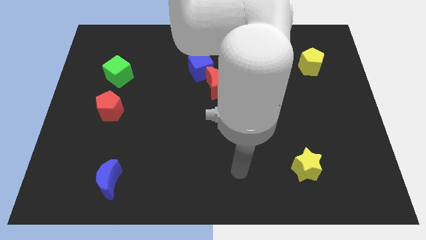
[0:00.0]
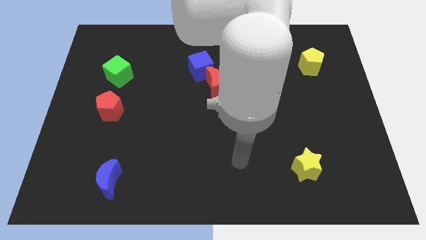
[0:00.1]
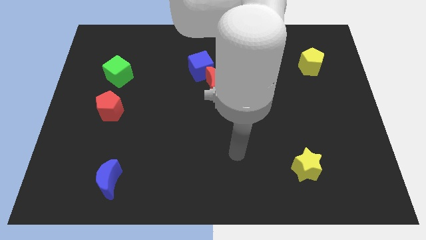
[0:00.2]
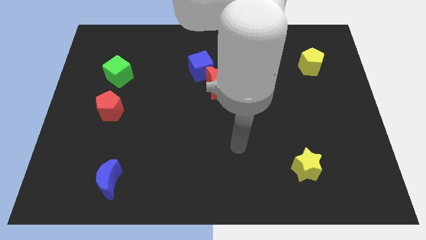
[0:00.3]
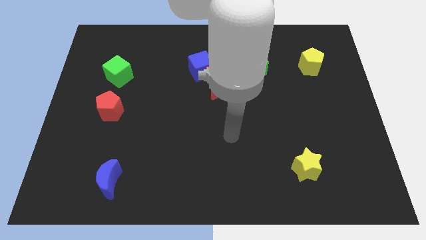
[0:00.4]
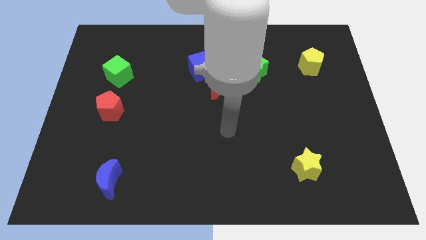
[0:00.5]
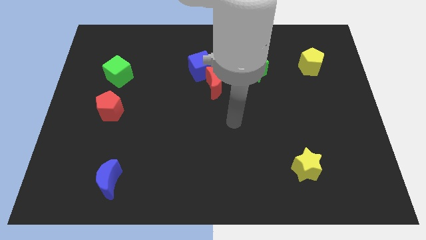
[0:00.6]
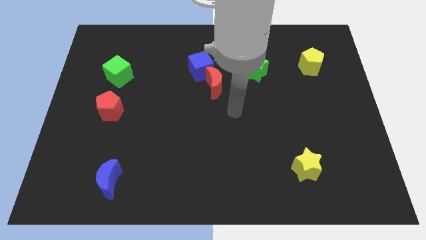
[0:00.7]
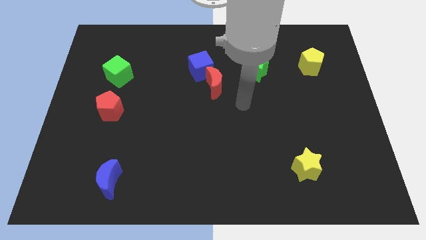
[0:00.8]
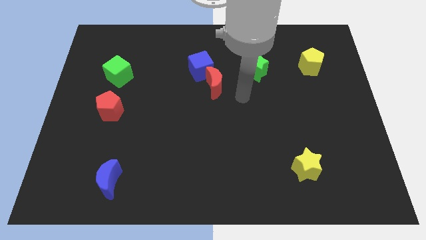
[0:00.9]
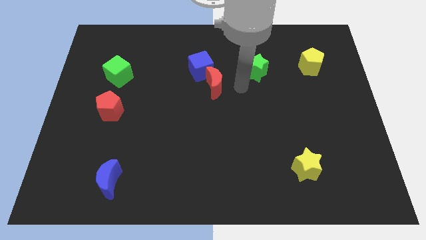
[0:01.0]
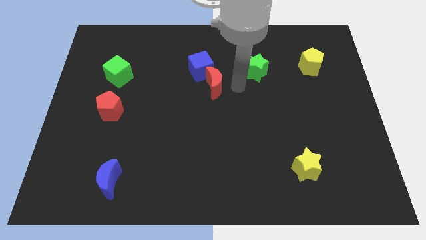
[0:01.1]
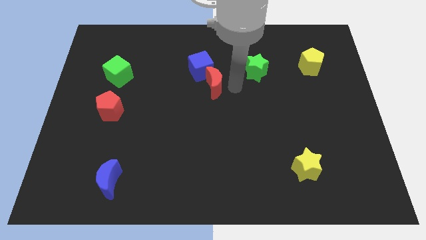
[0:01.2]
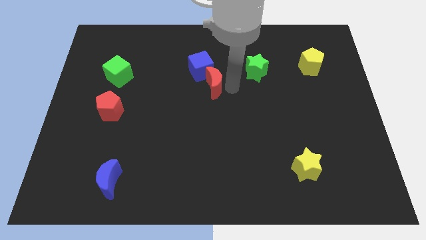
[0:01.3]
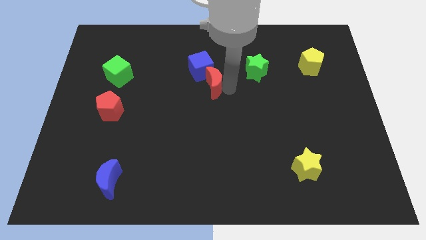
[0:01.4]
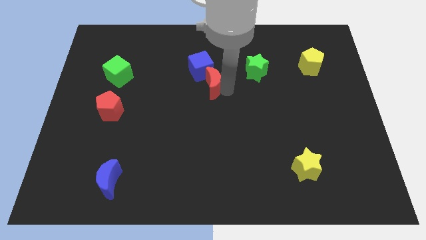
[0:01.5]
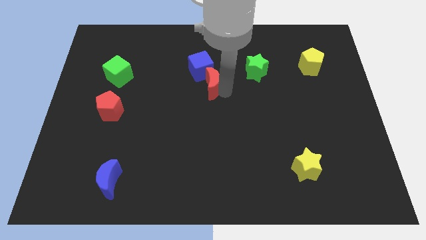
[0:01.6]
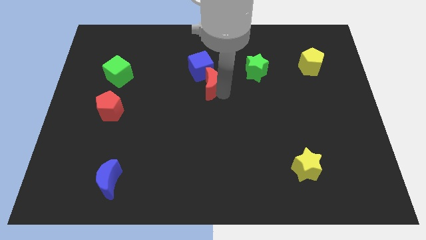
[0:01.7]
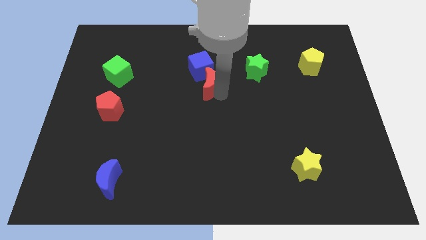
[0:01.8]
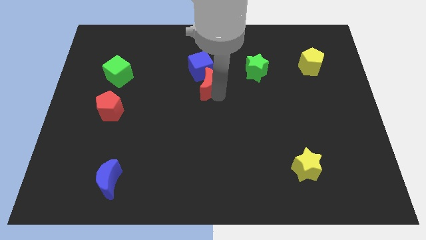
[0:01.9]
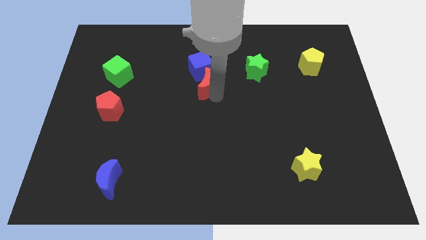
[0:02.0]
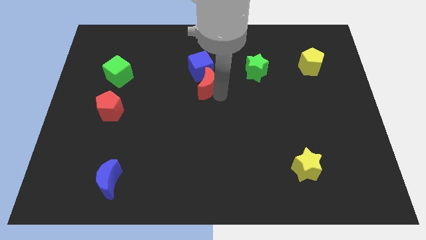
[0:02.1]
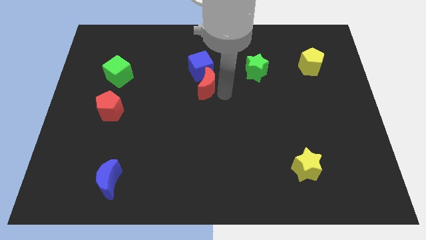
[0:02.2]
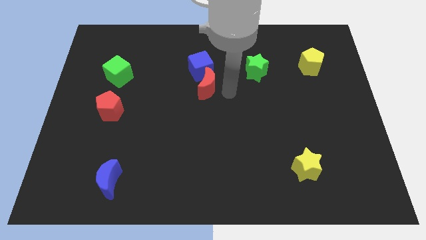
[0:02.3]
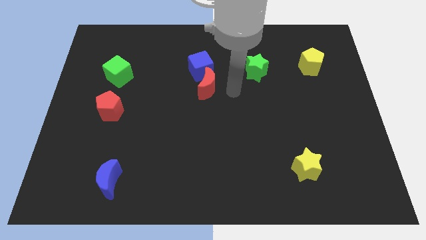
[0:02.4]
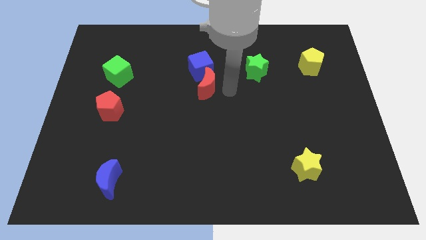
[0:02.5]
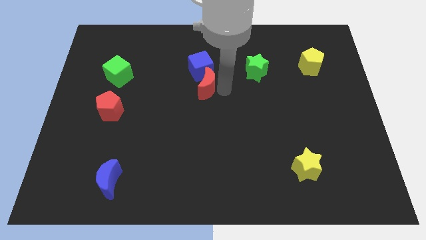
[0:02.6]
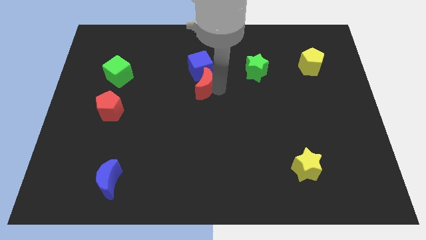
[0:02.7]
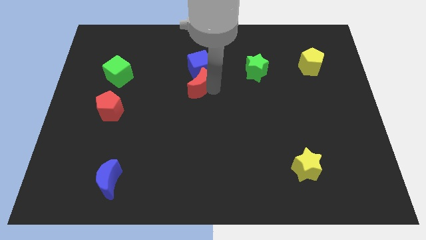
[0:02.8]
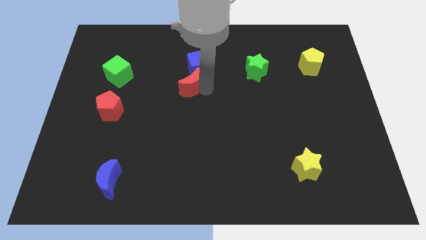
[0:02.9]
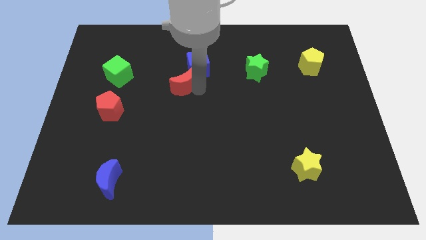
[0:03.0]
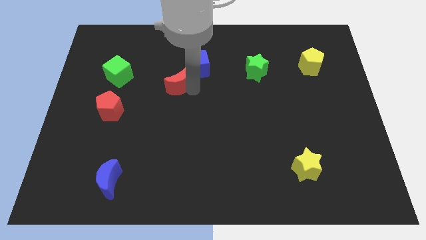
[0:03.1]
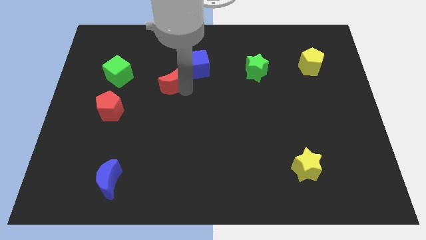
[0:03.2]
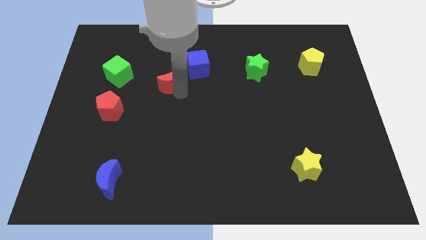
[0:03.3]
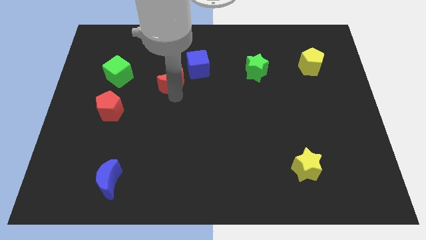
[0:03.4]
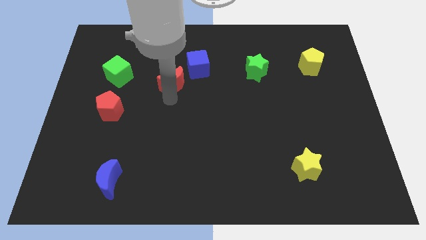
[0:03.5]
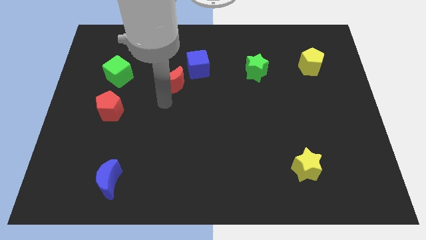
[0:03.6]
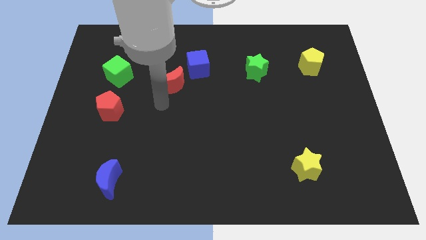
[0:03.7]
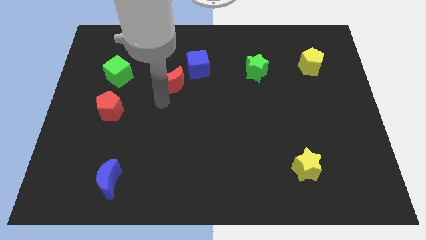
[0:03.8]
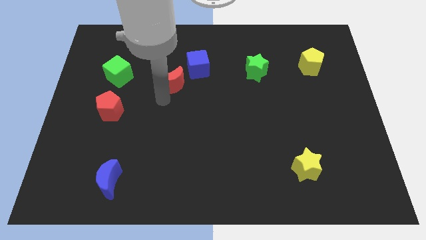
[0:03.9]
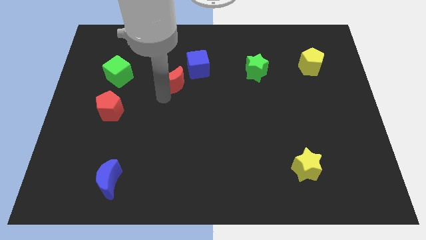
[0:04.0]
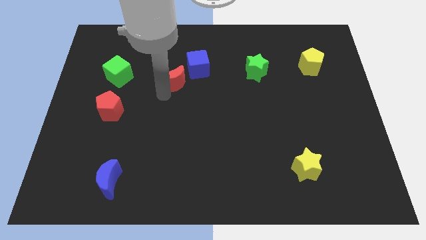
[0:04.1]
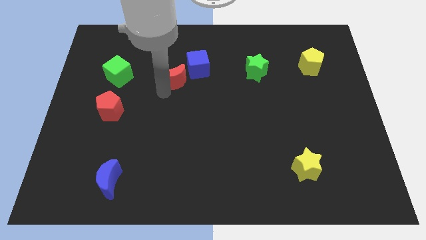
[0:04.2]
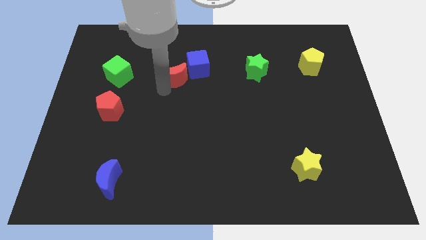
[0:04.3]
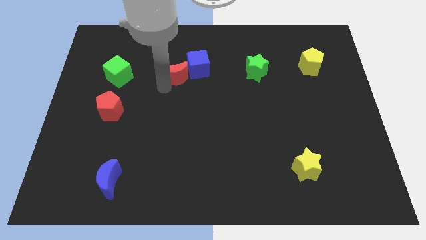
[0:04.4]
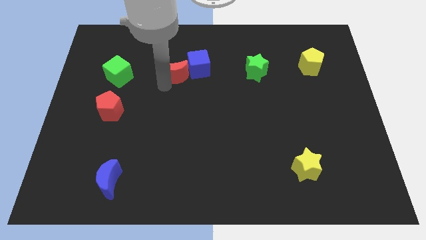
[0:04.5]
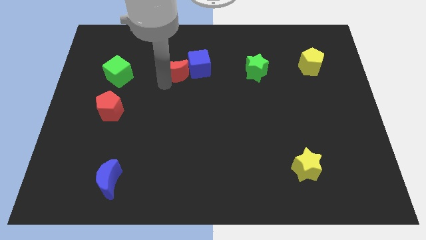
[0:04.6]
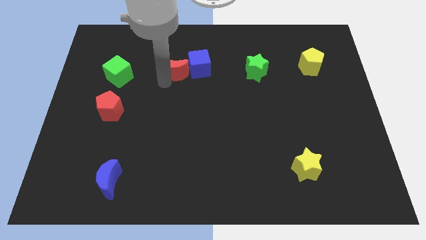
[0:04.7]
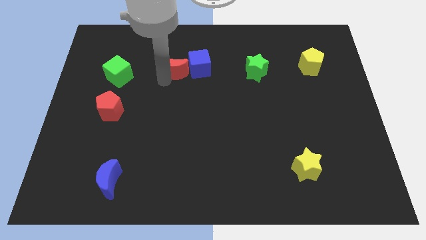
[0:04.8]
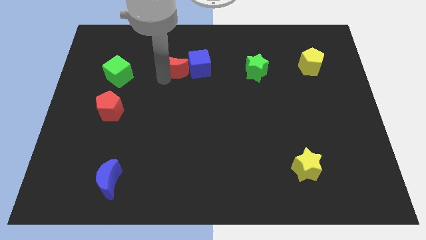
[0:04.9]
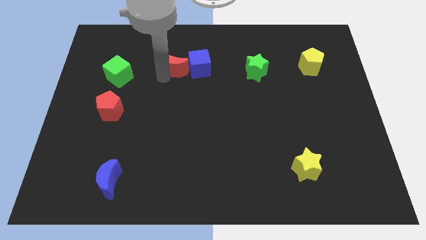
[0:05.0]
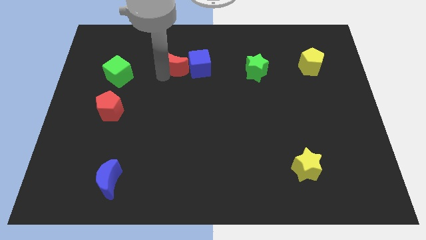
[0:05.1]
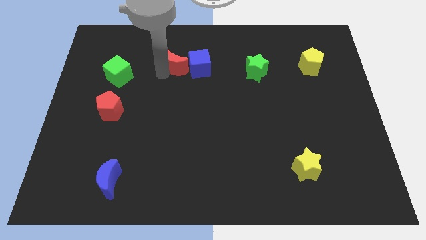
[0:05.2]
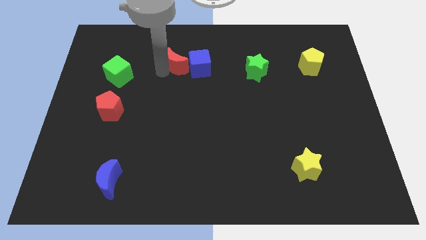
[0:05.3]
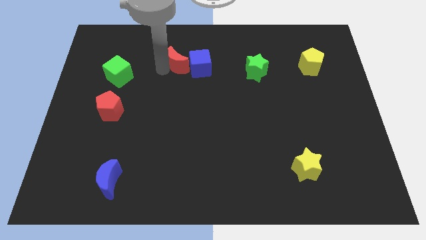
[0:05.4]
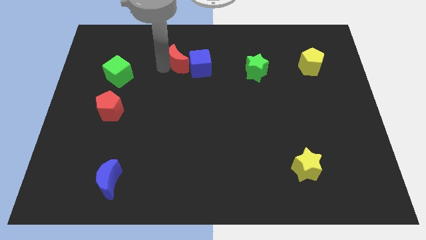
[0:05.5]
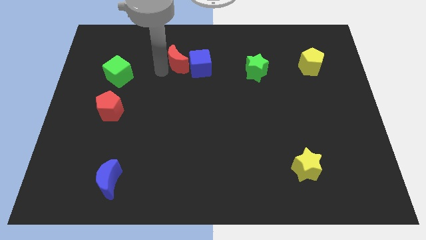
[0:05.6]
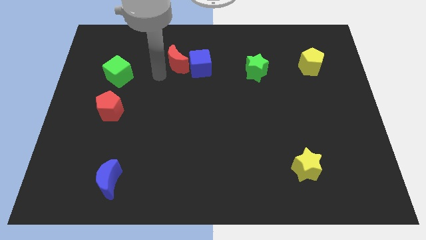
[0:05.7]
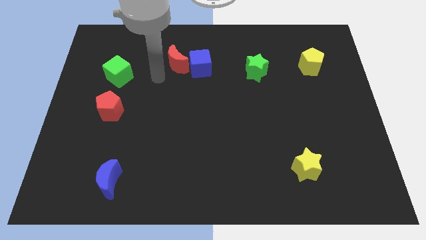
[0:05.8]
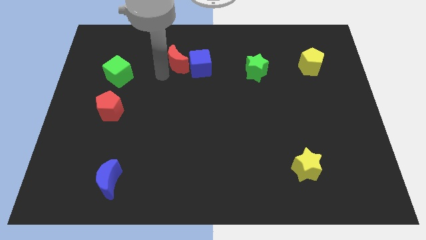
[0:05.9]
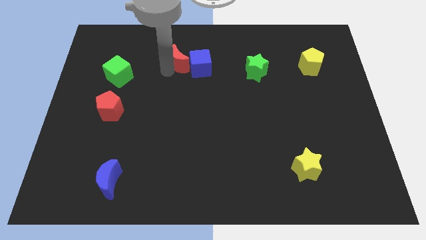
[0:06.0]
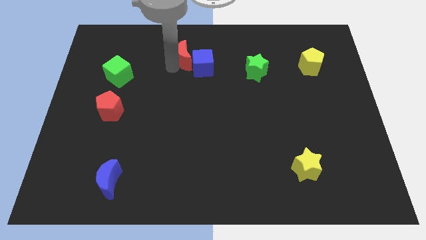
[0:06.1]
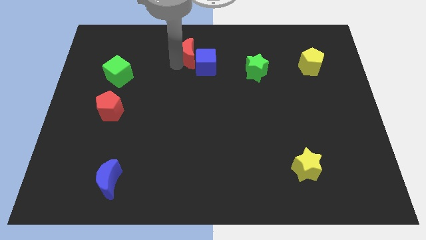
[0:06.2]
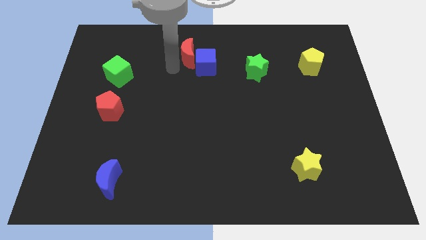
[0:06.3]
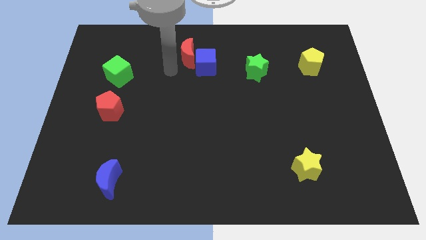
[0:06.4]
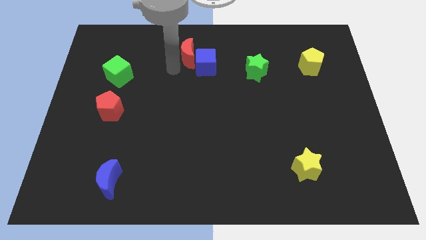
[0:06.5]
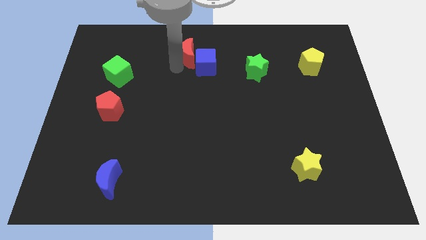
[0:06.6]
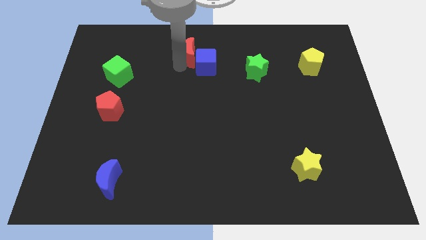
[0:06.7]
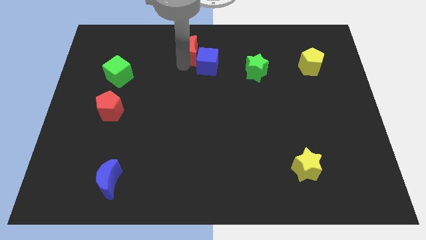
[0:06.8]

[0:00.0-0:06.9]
put the red moon to the top

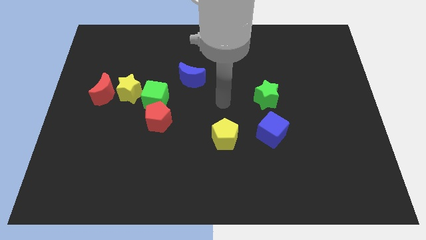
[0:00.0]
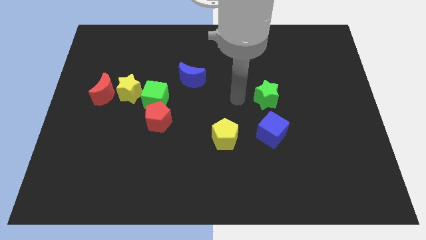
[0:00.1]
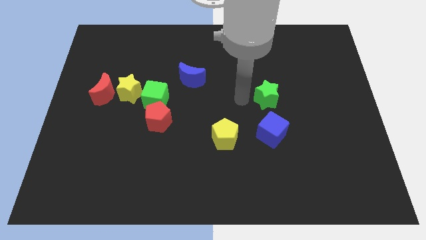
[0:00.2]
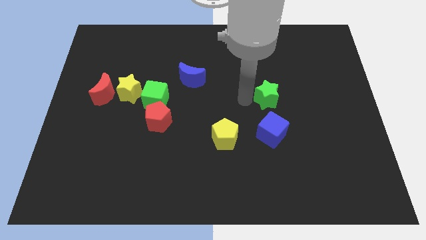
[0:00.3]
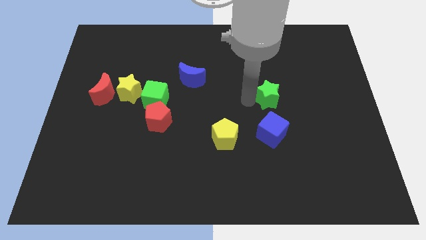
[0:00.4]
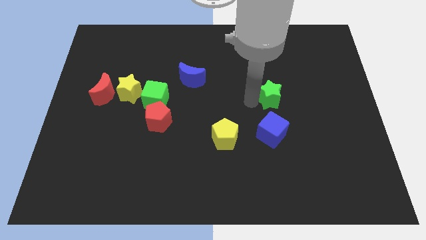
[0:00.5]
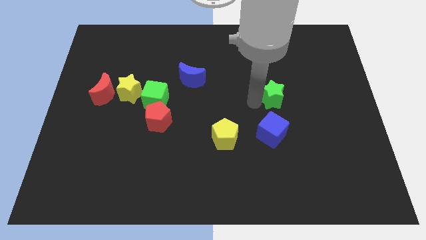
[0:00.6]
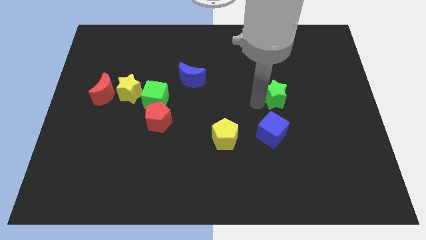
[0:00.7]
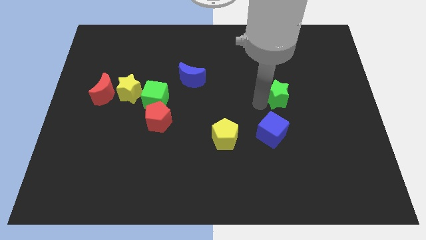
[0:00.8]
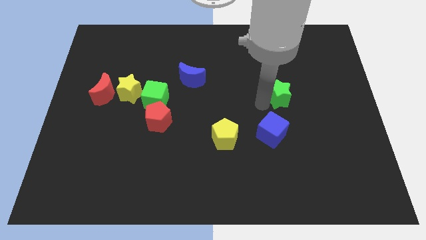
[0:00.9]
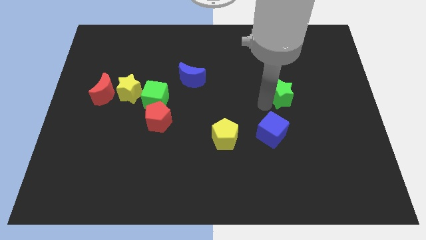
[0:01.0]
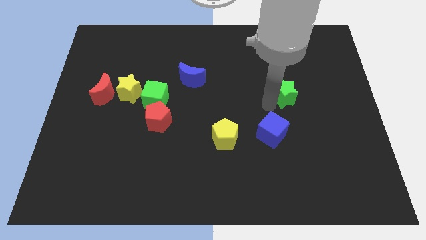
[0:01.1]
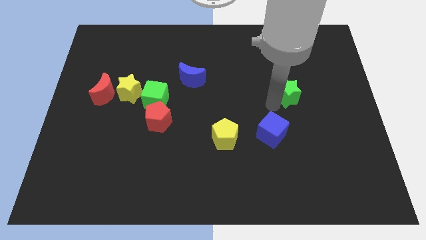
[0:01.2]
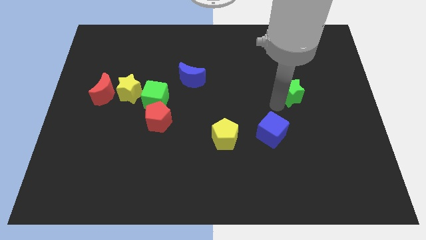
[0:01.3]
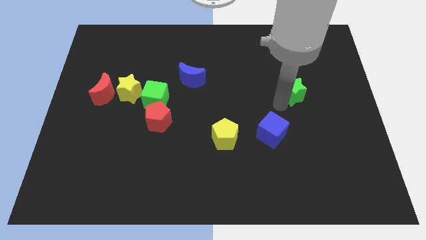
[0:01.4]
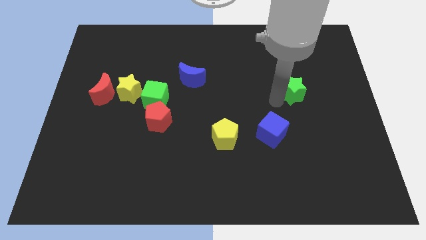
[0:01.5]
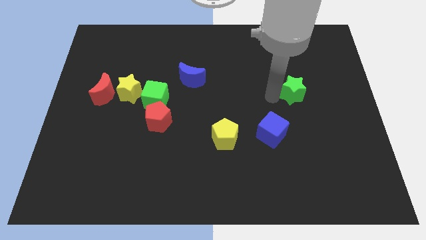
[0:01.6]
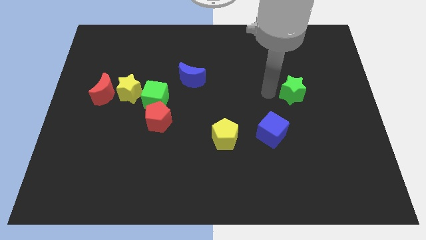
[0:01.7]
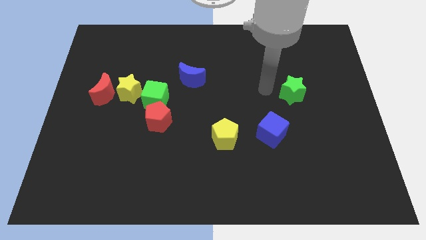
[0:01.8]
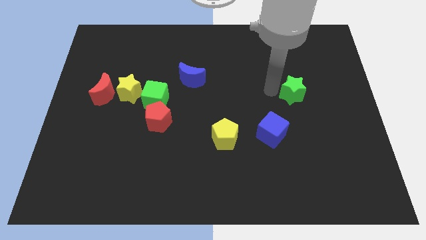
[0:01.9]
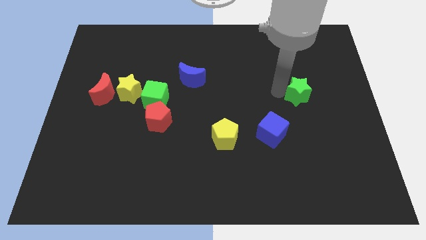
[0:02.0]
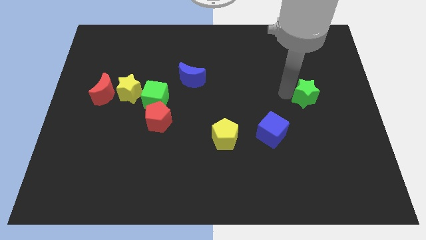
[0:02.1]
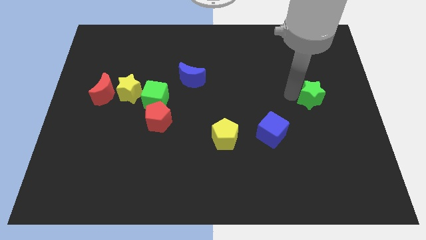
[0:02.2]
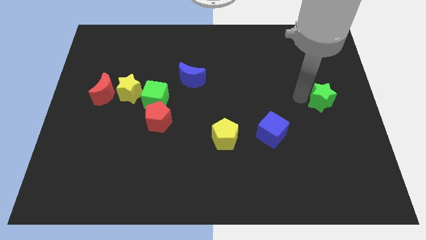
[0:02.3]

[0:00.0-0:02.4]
slide the green star to the center right
